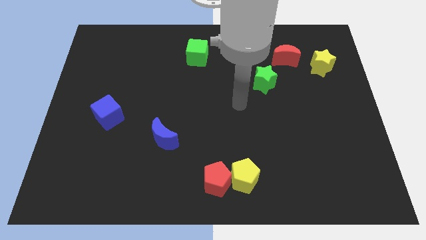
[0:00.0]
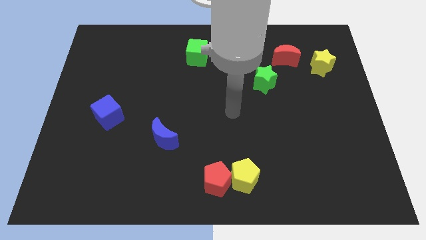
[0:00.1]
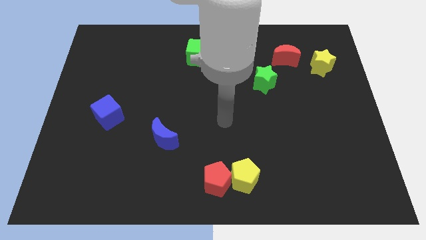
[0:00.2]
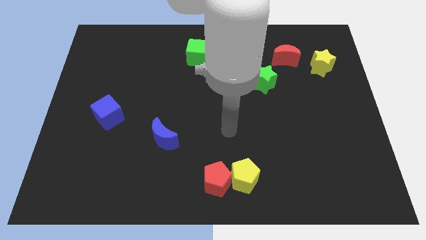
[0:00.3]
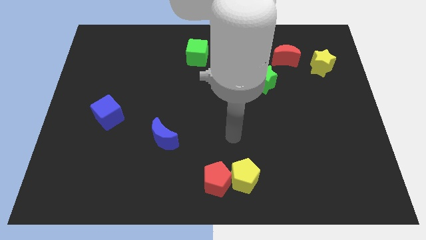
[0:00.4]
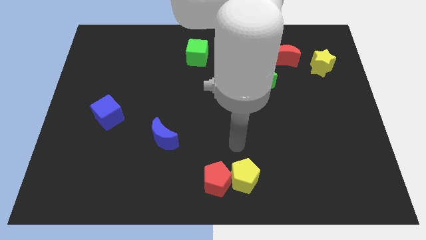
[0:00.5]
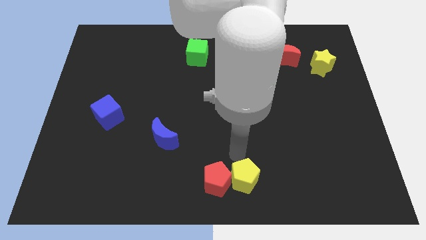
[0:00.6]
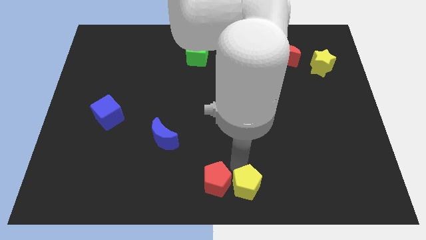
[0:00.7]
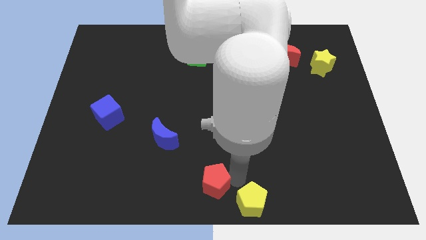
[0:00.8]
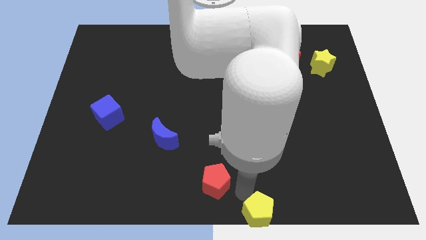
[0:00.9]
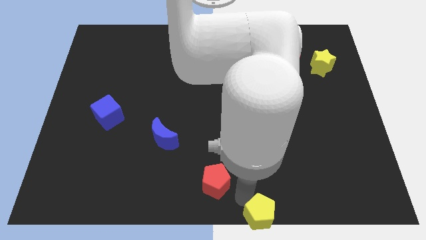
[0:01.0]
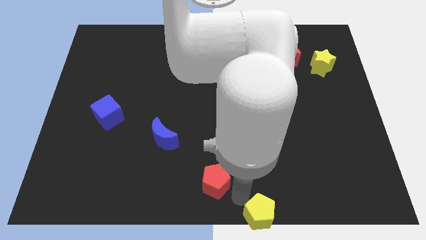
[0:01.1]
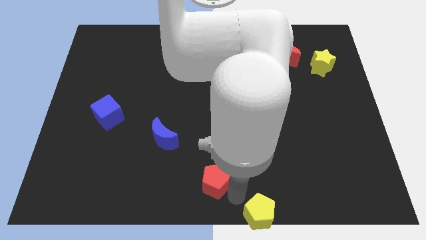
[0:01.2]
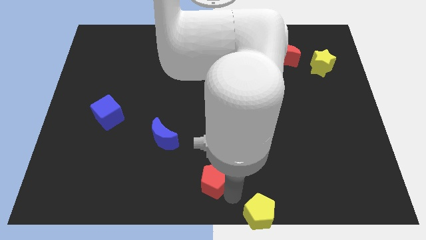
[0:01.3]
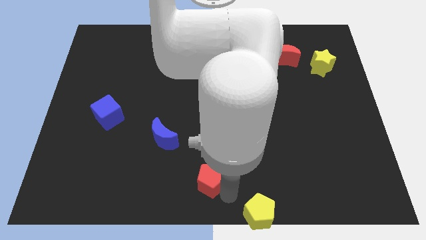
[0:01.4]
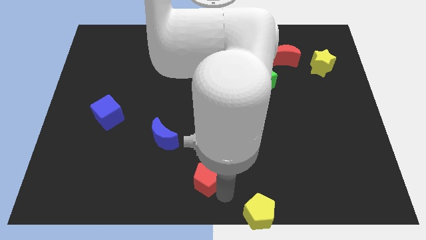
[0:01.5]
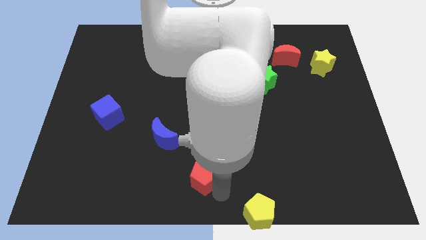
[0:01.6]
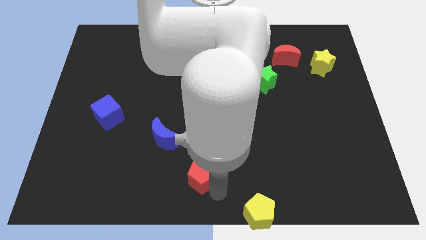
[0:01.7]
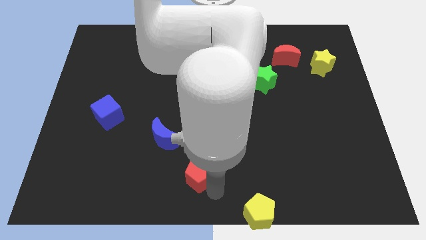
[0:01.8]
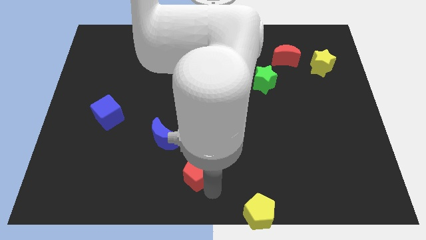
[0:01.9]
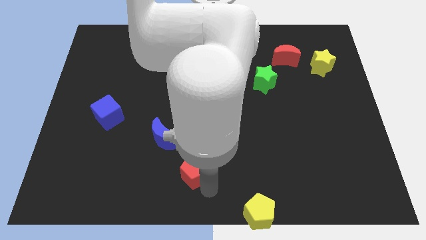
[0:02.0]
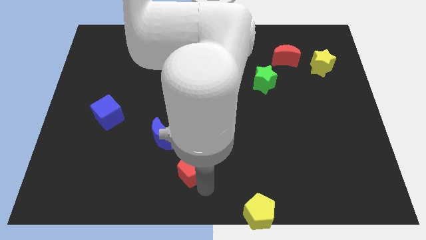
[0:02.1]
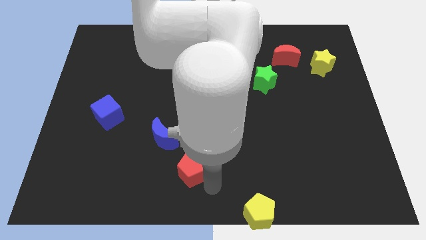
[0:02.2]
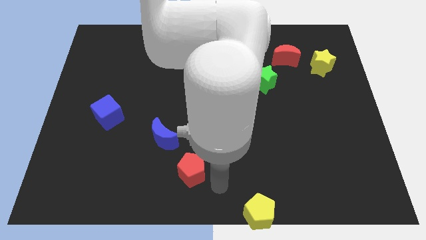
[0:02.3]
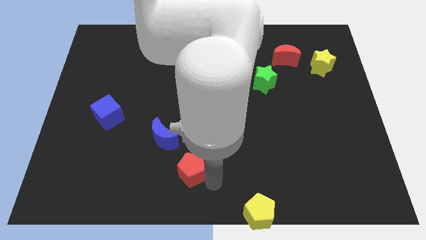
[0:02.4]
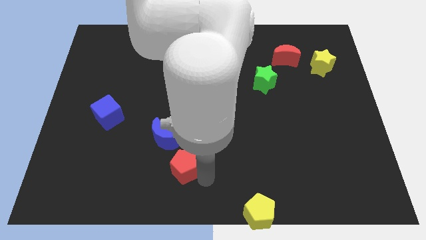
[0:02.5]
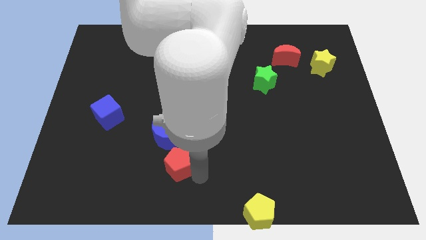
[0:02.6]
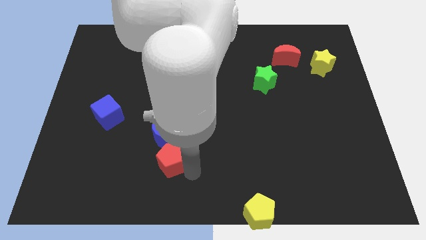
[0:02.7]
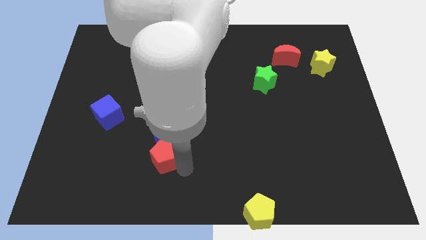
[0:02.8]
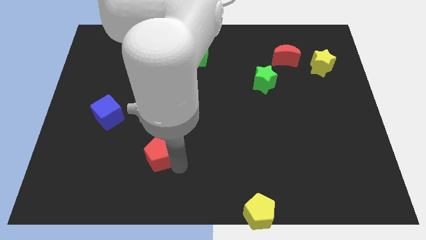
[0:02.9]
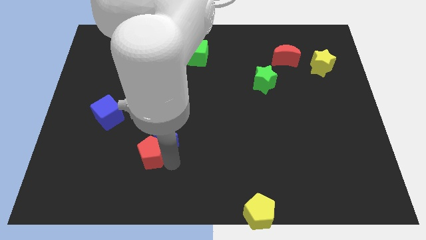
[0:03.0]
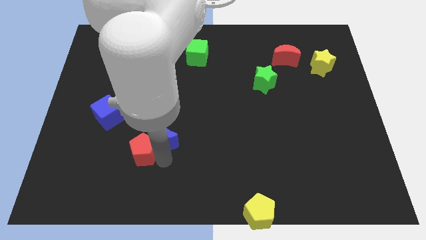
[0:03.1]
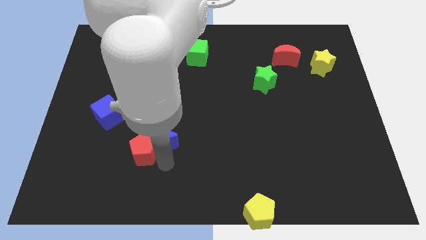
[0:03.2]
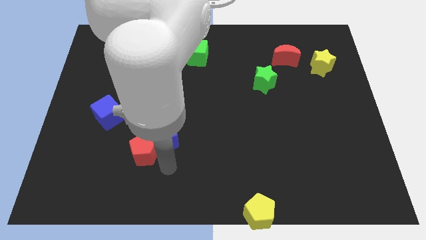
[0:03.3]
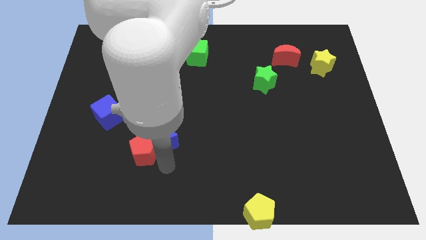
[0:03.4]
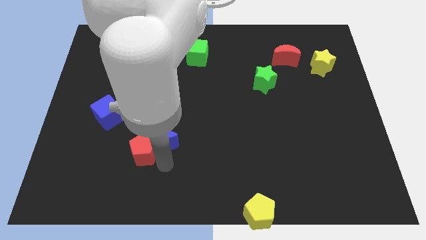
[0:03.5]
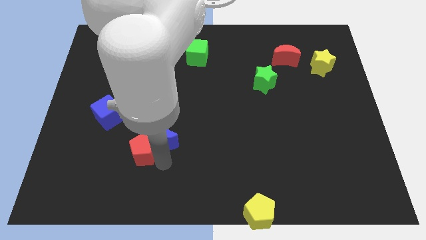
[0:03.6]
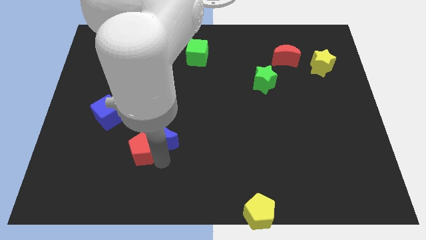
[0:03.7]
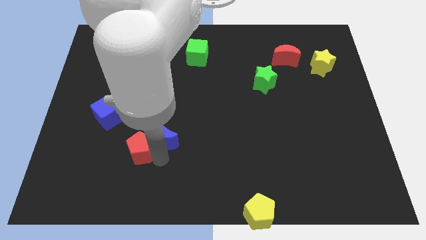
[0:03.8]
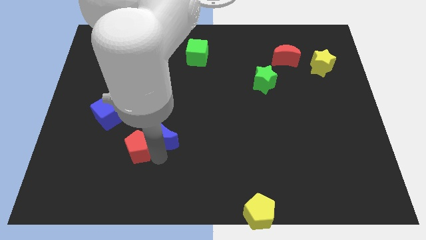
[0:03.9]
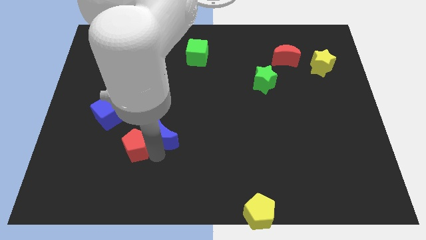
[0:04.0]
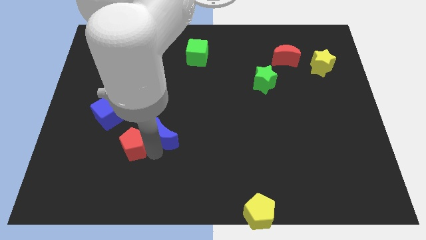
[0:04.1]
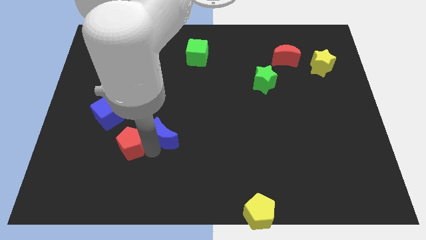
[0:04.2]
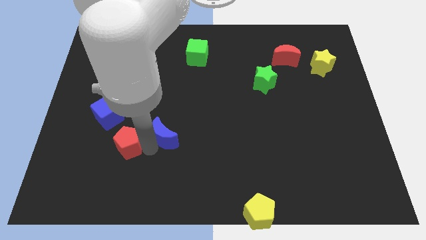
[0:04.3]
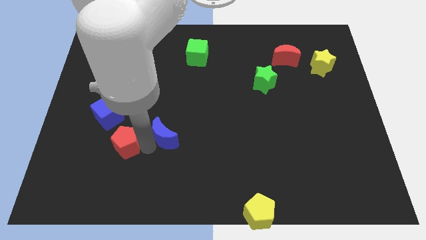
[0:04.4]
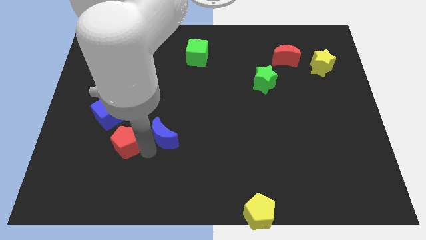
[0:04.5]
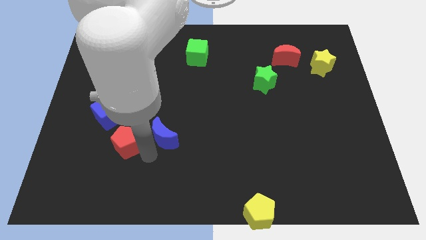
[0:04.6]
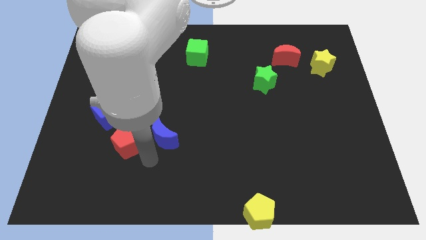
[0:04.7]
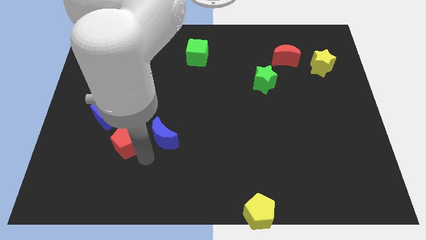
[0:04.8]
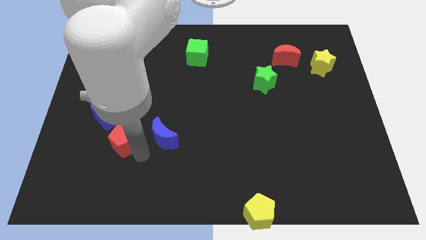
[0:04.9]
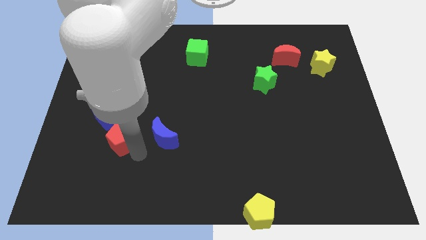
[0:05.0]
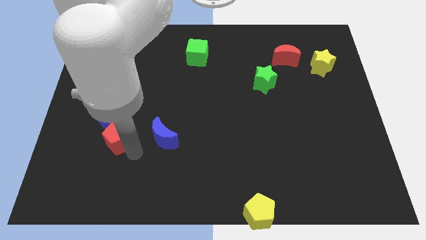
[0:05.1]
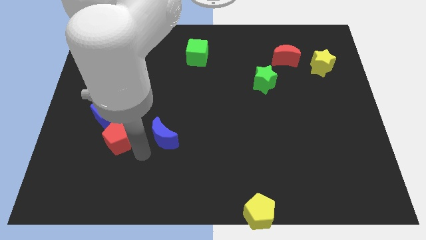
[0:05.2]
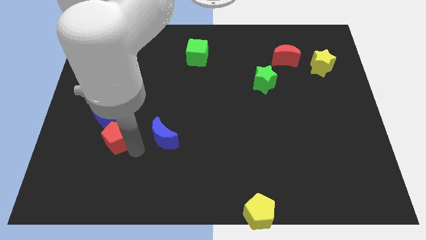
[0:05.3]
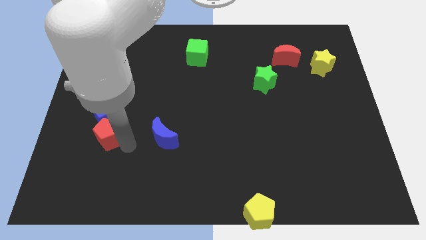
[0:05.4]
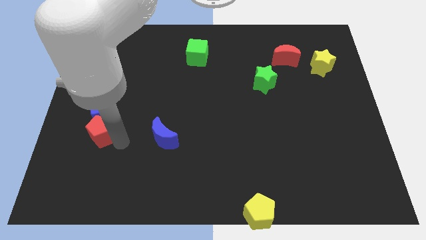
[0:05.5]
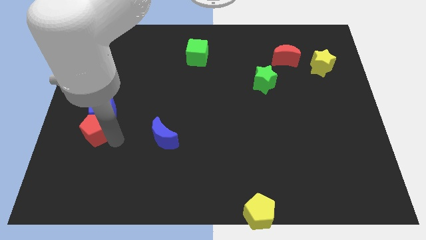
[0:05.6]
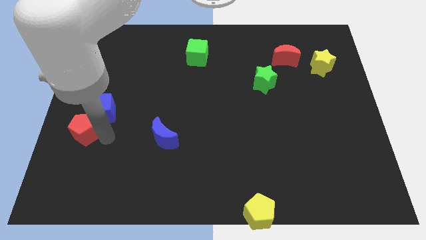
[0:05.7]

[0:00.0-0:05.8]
slide the red pentagon to the left side

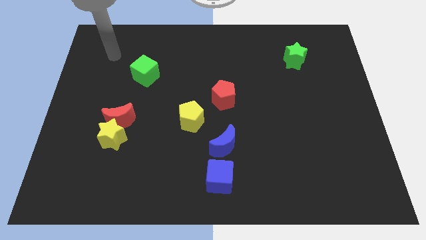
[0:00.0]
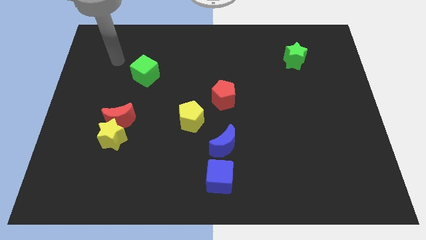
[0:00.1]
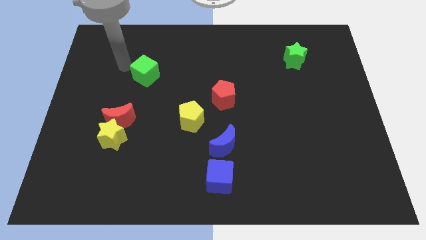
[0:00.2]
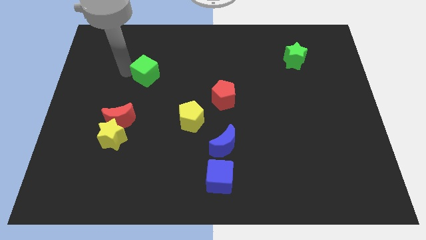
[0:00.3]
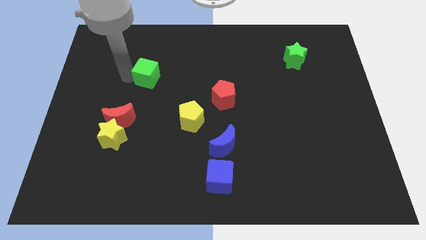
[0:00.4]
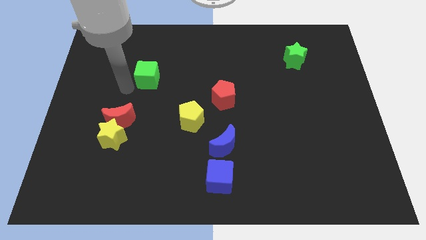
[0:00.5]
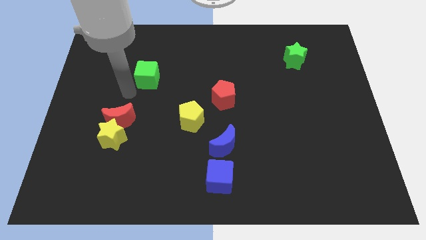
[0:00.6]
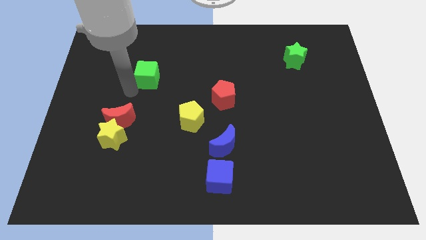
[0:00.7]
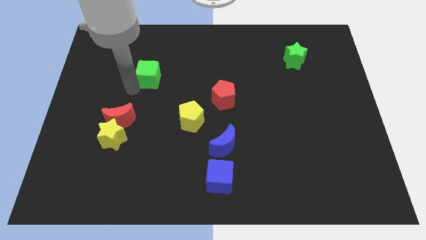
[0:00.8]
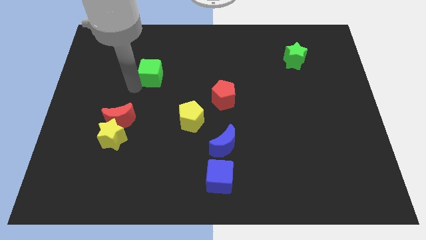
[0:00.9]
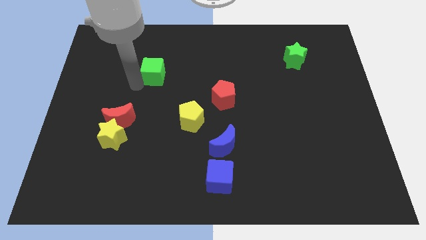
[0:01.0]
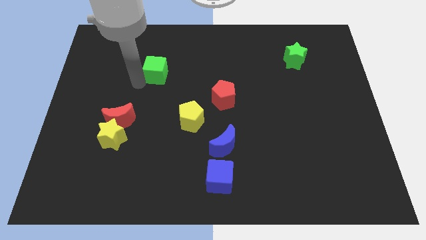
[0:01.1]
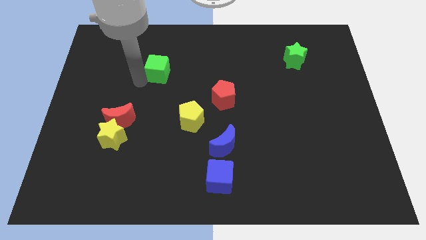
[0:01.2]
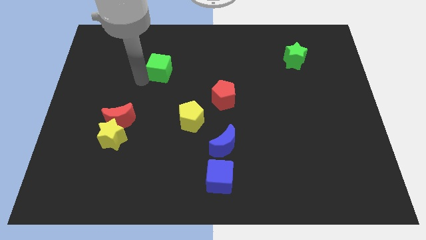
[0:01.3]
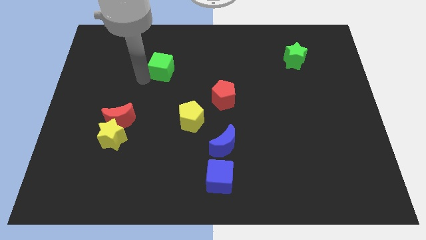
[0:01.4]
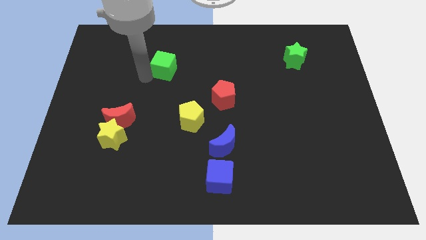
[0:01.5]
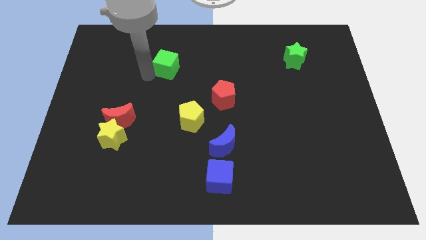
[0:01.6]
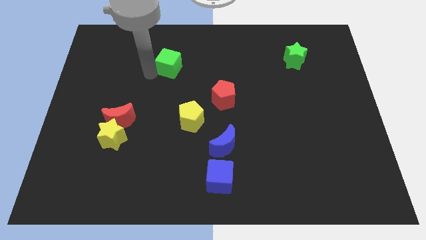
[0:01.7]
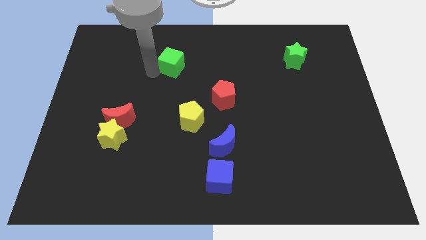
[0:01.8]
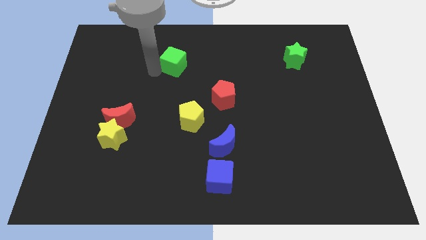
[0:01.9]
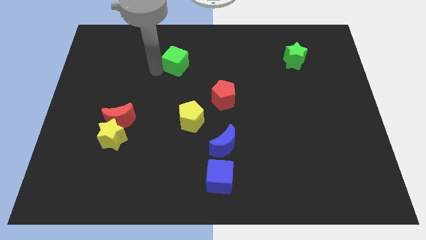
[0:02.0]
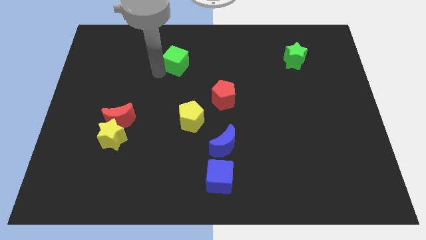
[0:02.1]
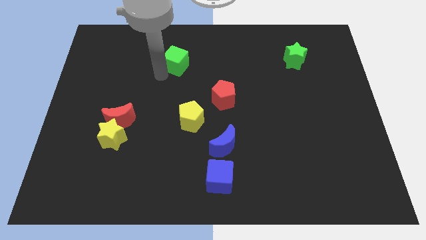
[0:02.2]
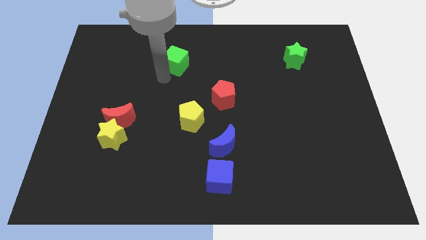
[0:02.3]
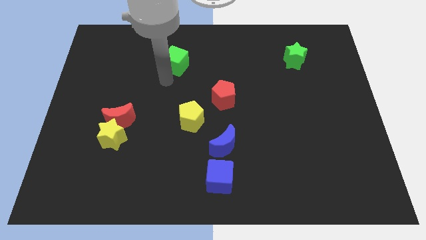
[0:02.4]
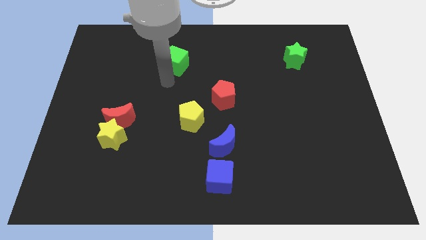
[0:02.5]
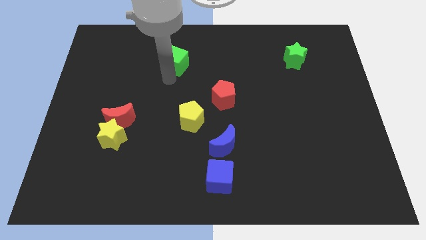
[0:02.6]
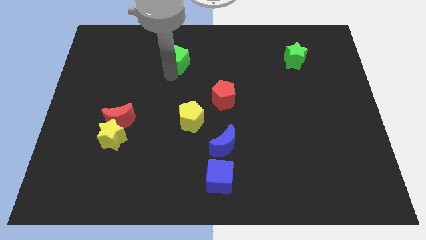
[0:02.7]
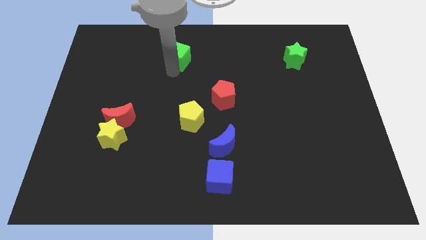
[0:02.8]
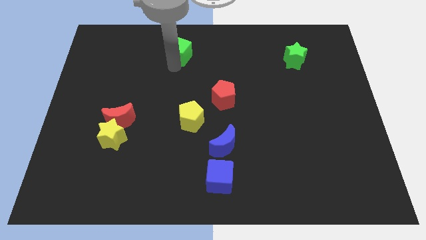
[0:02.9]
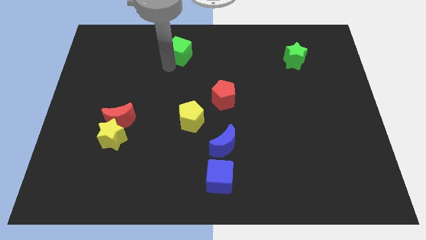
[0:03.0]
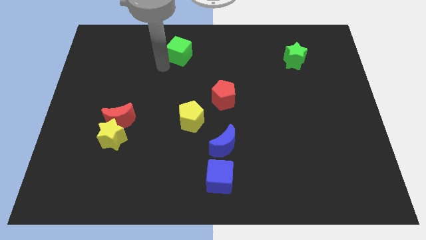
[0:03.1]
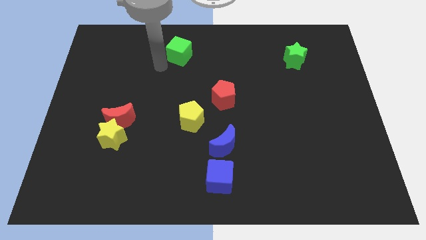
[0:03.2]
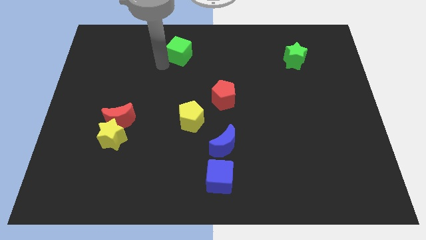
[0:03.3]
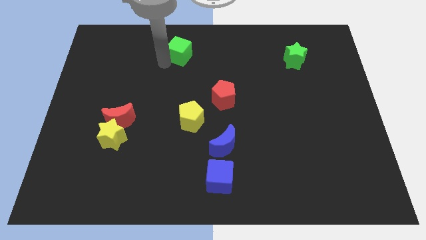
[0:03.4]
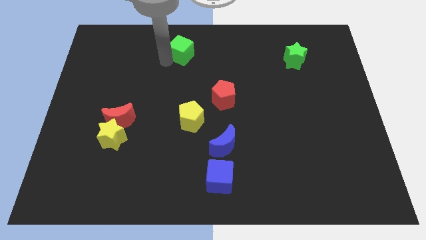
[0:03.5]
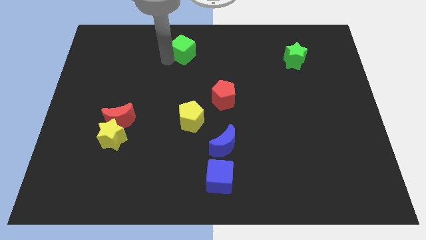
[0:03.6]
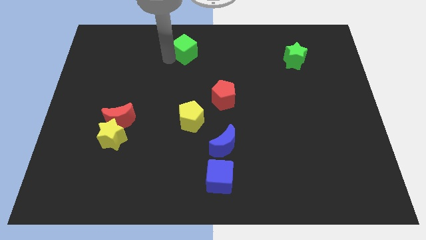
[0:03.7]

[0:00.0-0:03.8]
move the green cube to the top side
